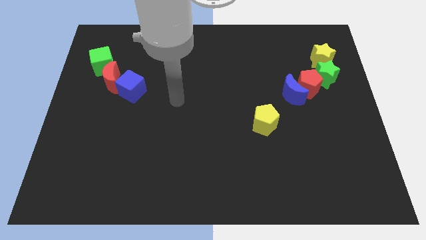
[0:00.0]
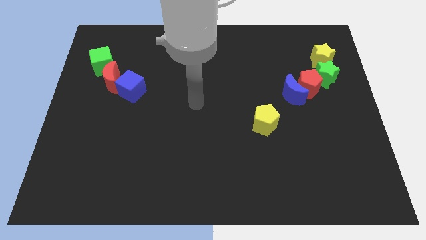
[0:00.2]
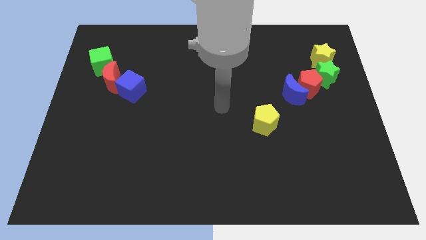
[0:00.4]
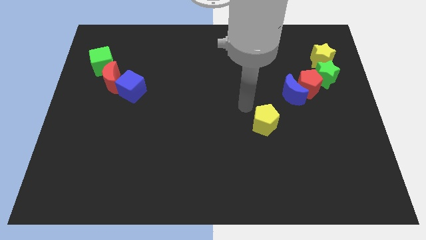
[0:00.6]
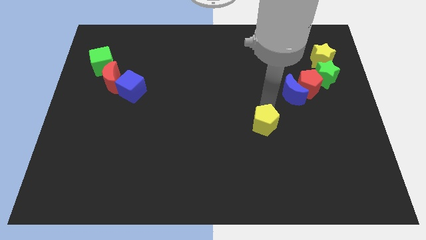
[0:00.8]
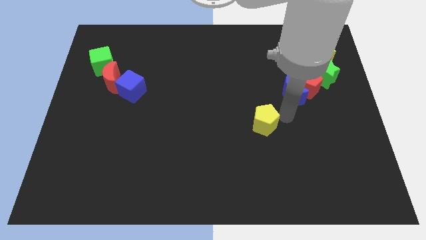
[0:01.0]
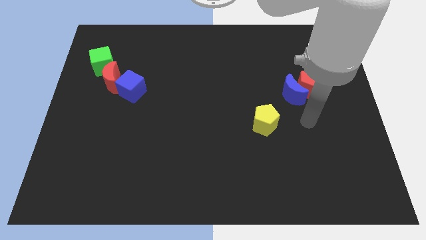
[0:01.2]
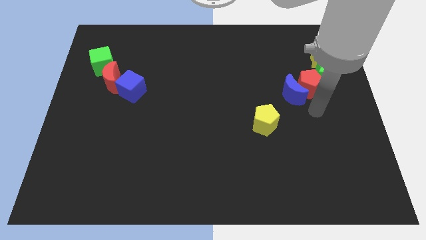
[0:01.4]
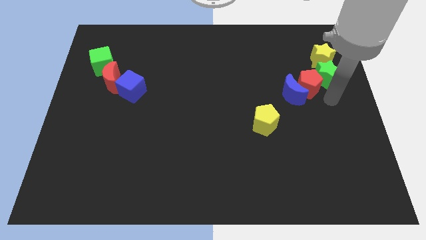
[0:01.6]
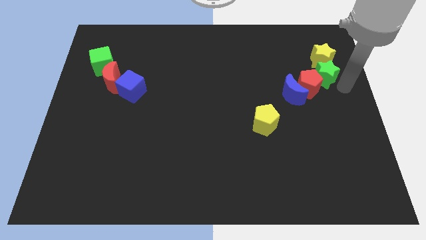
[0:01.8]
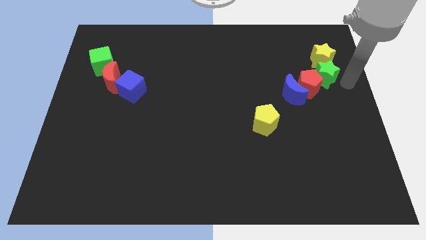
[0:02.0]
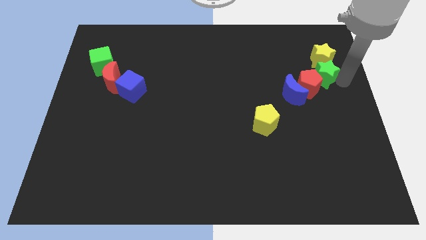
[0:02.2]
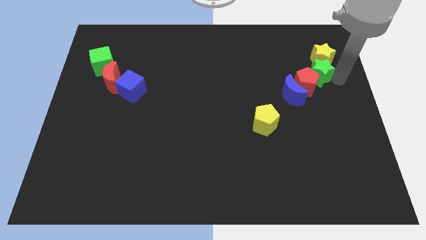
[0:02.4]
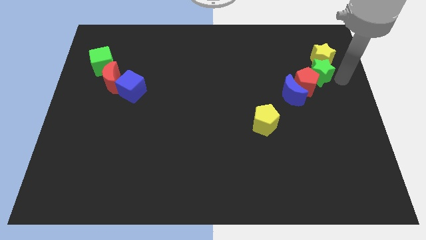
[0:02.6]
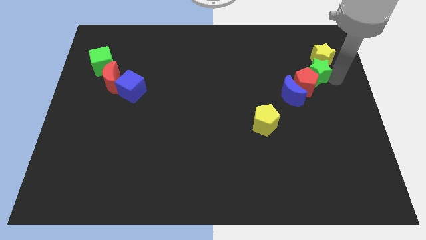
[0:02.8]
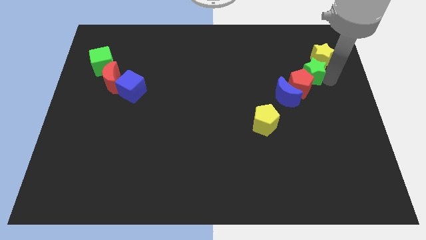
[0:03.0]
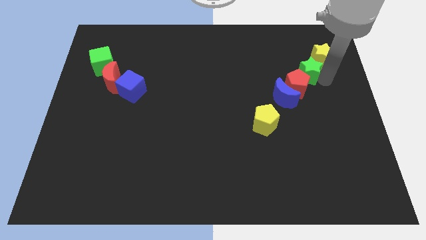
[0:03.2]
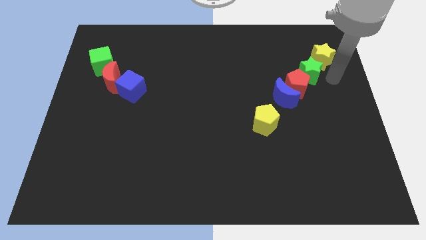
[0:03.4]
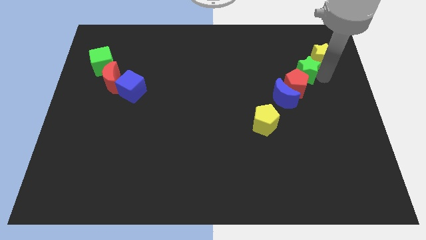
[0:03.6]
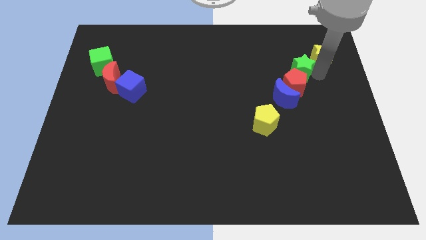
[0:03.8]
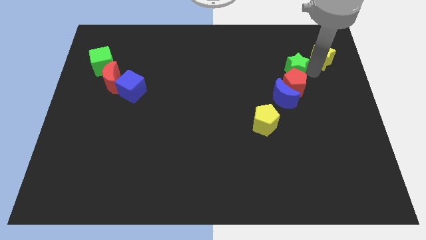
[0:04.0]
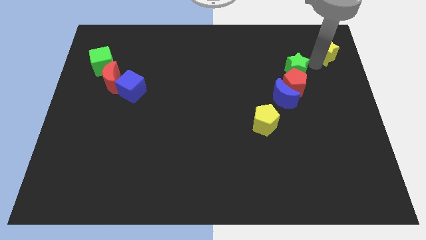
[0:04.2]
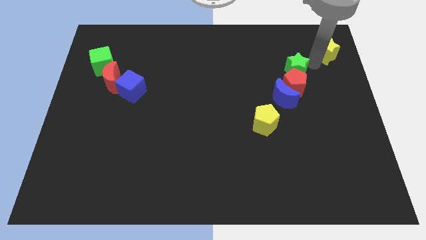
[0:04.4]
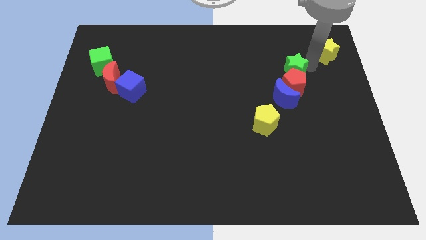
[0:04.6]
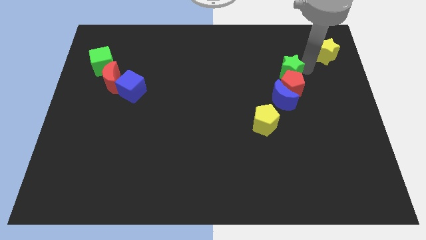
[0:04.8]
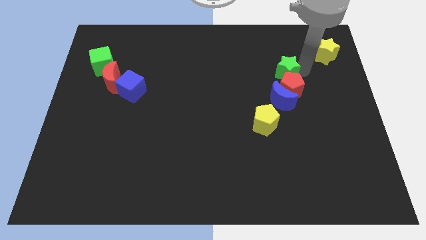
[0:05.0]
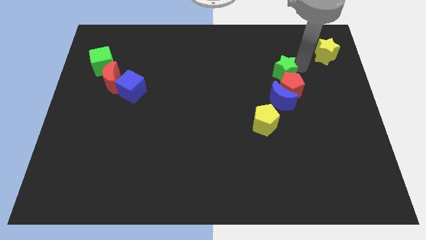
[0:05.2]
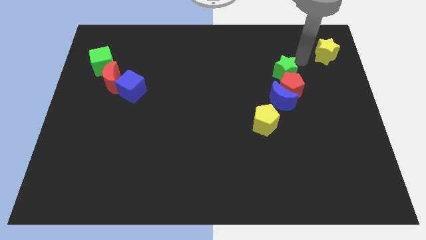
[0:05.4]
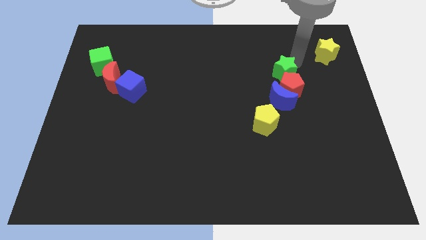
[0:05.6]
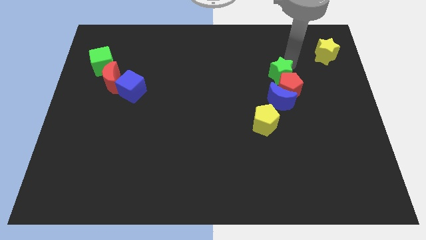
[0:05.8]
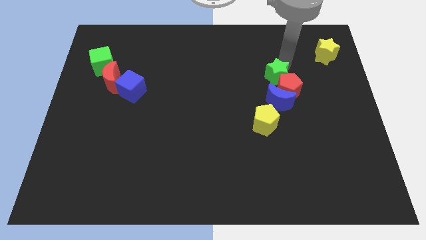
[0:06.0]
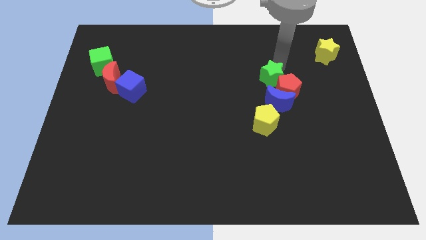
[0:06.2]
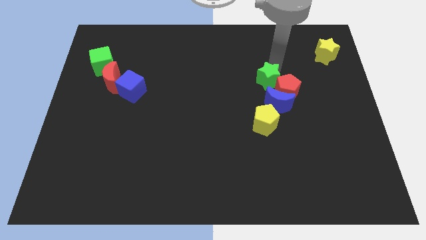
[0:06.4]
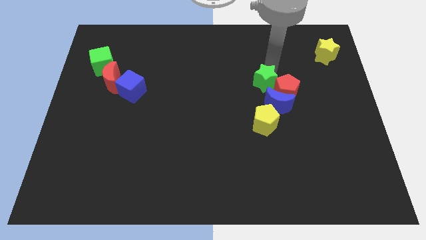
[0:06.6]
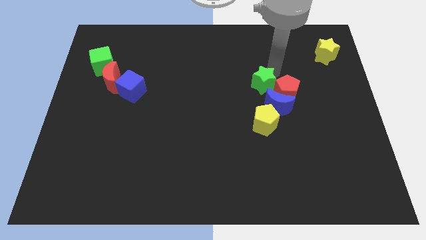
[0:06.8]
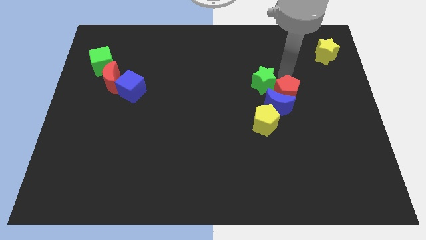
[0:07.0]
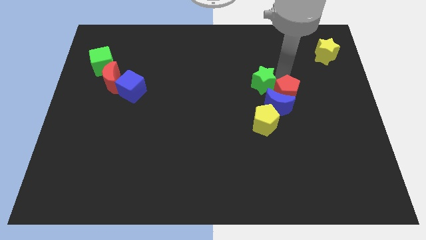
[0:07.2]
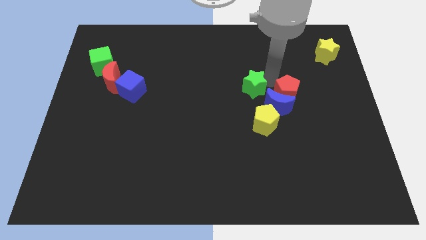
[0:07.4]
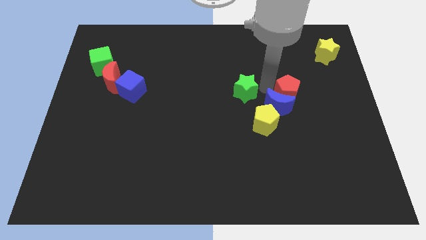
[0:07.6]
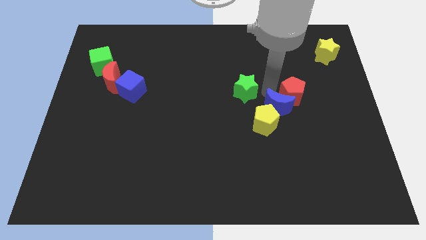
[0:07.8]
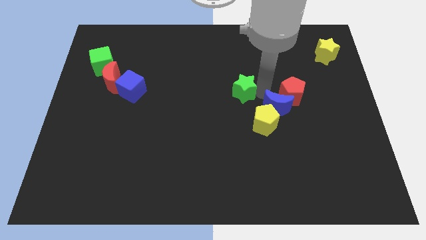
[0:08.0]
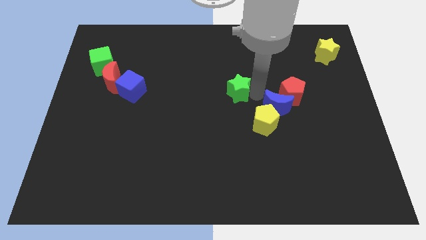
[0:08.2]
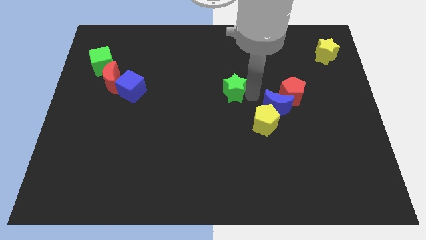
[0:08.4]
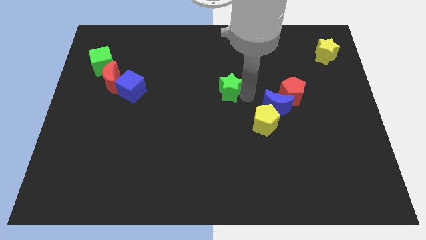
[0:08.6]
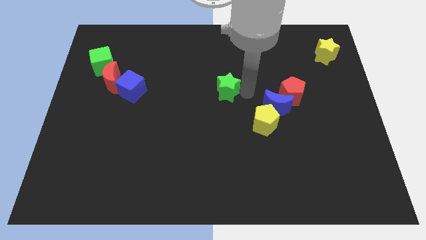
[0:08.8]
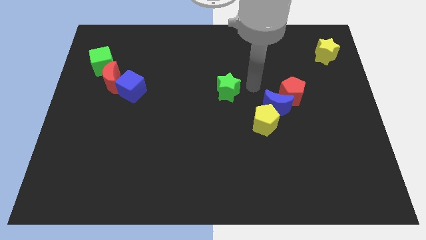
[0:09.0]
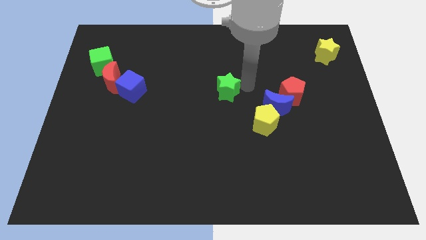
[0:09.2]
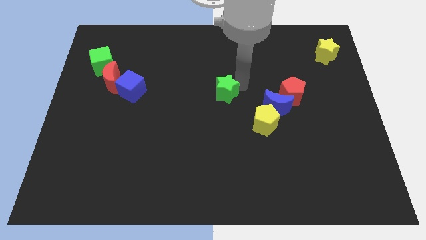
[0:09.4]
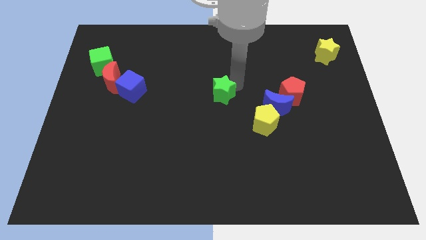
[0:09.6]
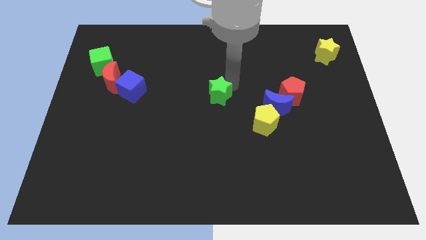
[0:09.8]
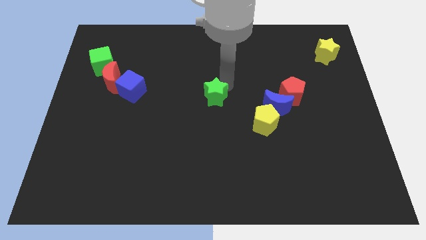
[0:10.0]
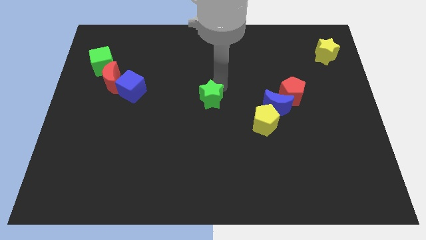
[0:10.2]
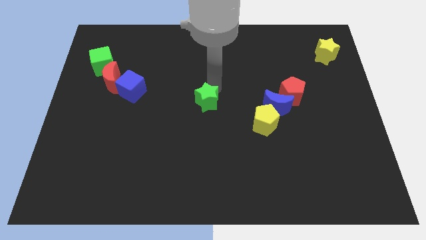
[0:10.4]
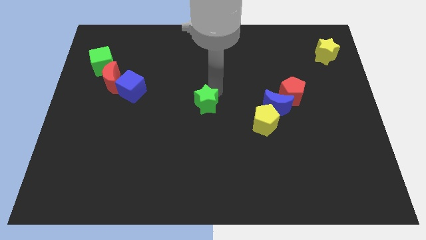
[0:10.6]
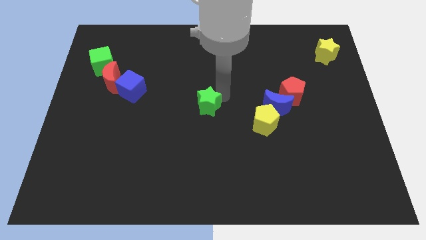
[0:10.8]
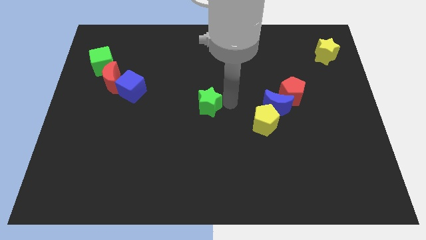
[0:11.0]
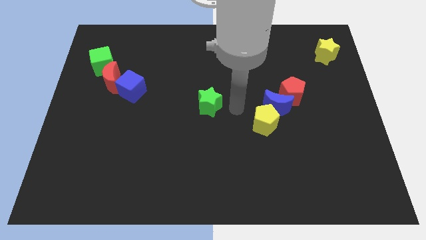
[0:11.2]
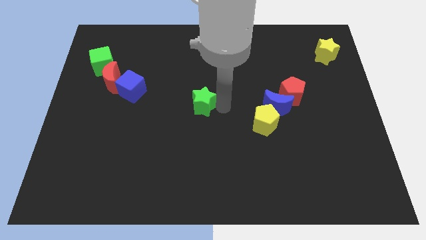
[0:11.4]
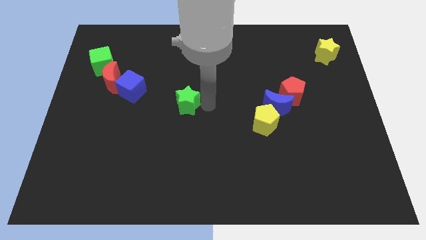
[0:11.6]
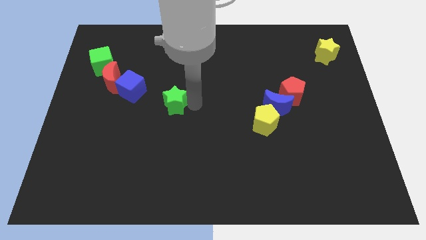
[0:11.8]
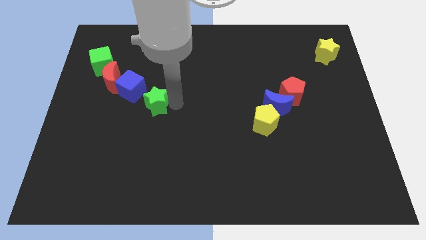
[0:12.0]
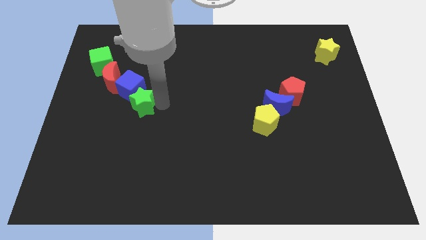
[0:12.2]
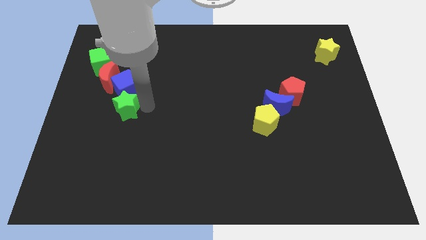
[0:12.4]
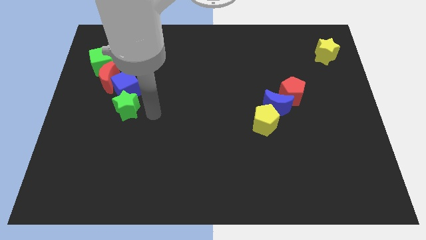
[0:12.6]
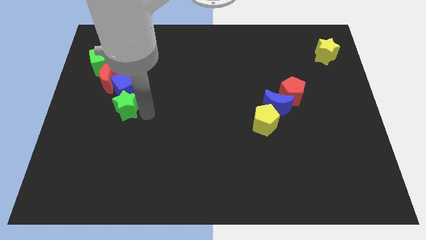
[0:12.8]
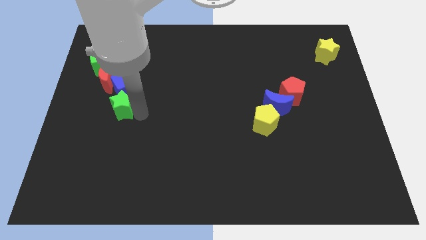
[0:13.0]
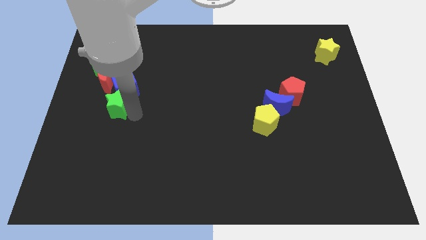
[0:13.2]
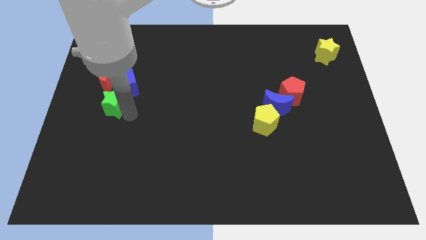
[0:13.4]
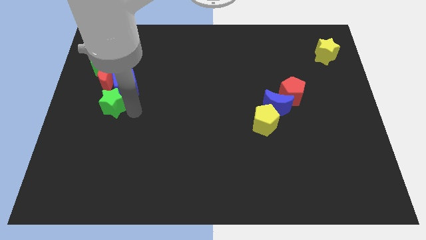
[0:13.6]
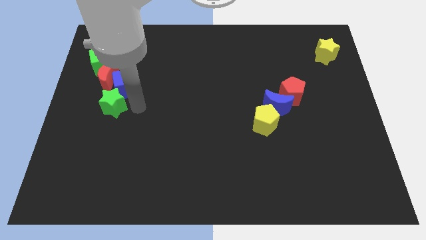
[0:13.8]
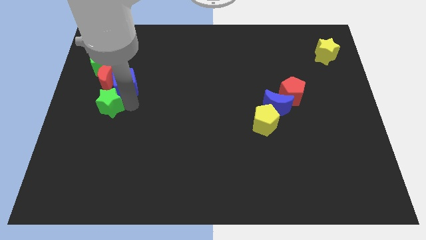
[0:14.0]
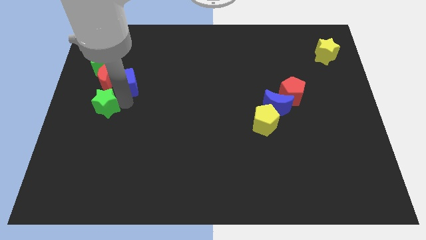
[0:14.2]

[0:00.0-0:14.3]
push the green star to the left side
